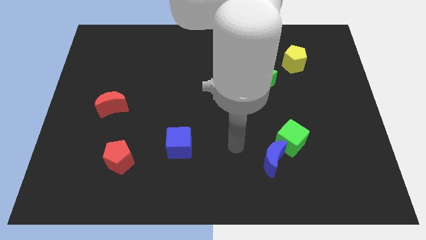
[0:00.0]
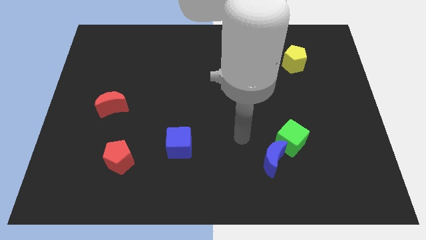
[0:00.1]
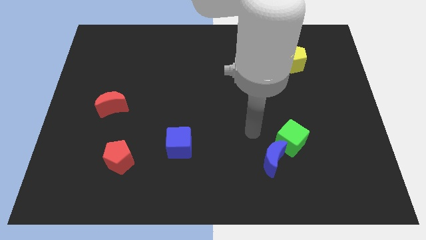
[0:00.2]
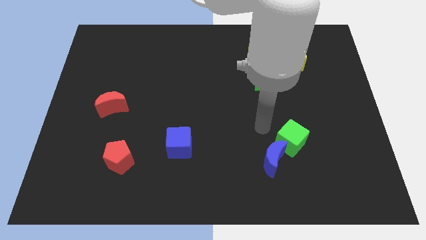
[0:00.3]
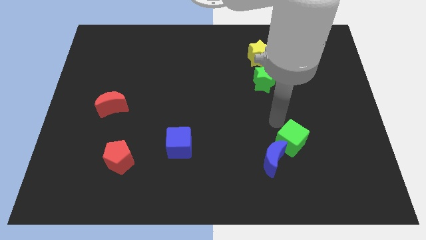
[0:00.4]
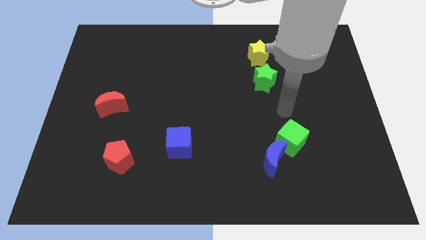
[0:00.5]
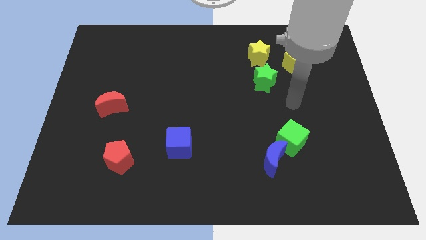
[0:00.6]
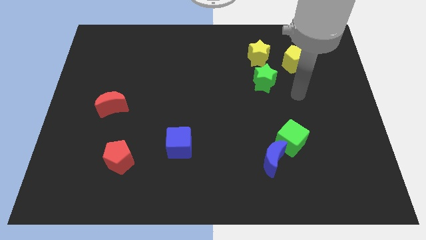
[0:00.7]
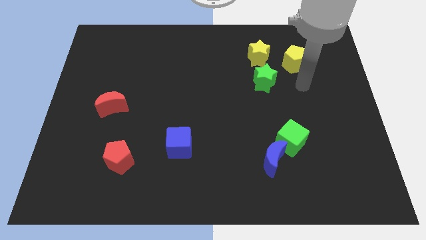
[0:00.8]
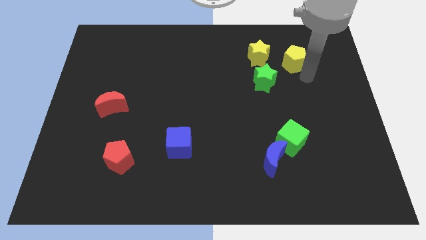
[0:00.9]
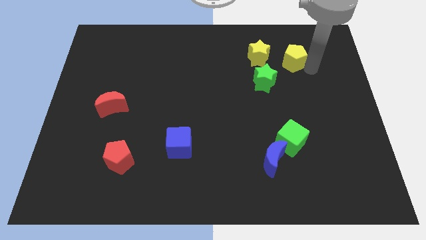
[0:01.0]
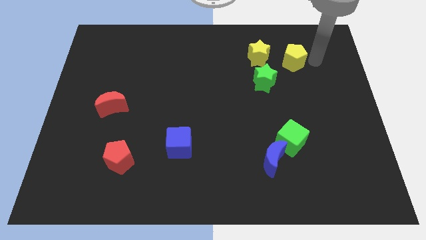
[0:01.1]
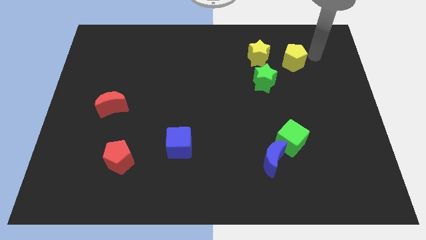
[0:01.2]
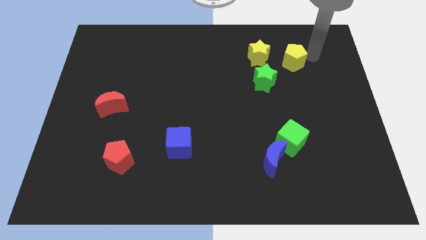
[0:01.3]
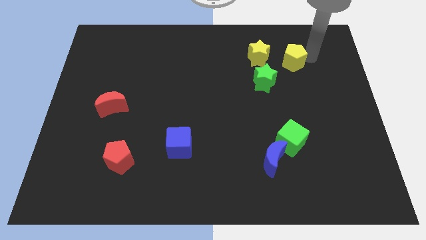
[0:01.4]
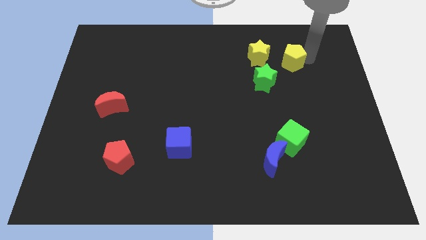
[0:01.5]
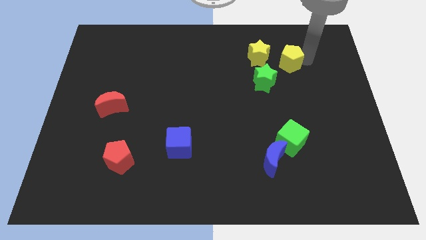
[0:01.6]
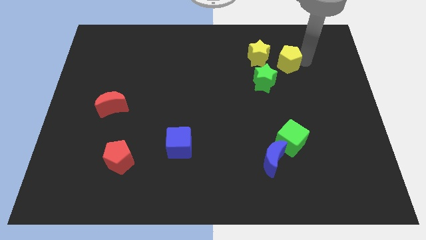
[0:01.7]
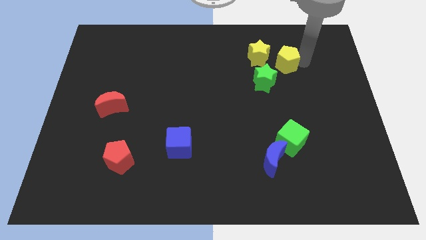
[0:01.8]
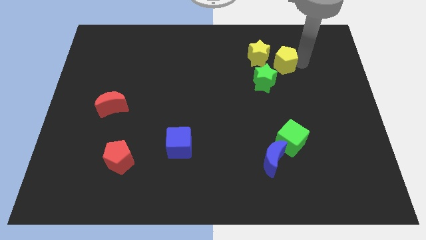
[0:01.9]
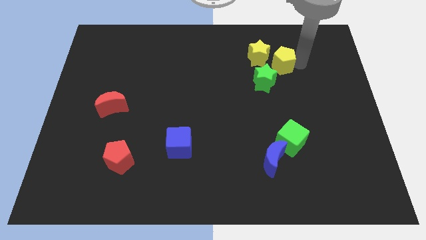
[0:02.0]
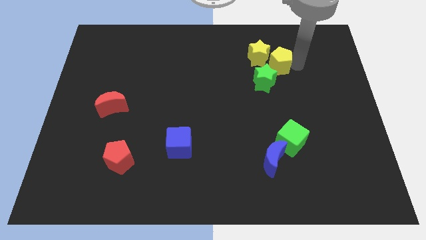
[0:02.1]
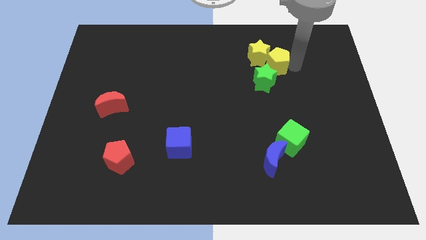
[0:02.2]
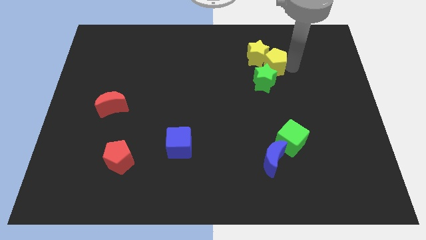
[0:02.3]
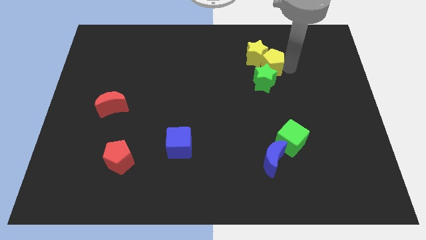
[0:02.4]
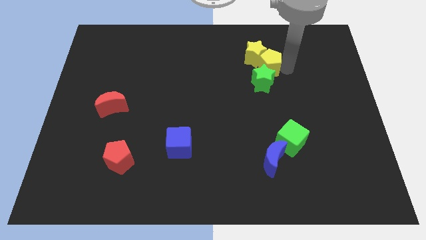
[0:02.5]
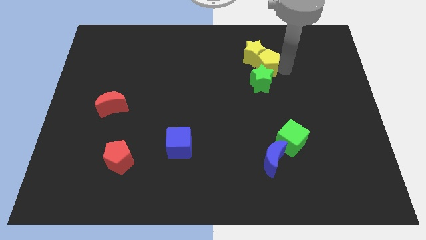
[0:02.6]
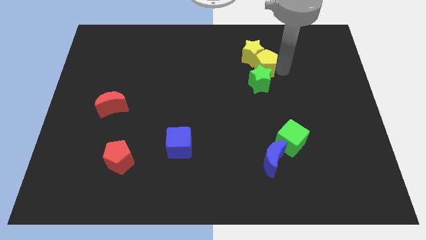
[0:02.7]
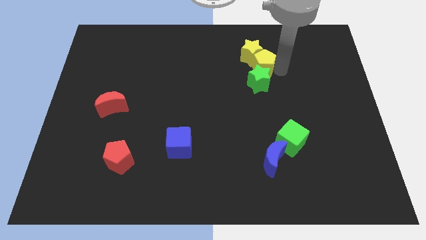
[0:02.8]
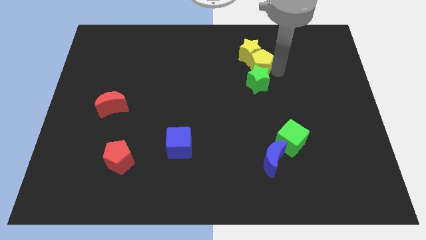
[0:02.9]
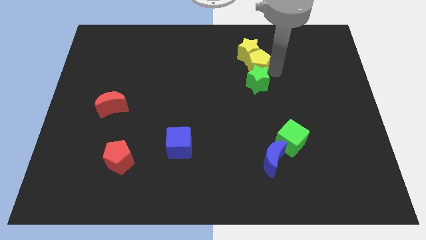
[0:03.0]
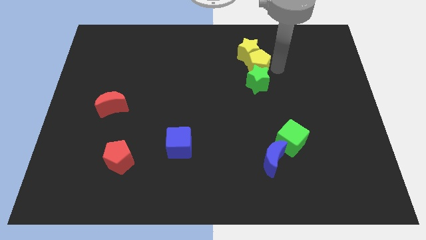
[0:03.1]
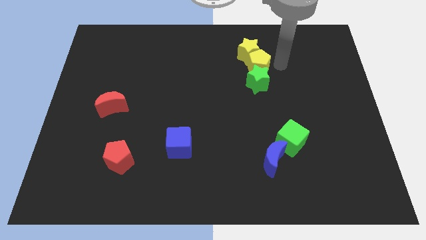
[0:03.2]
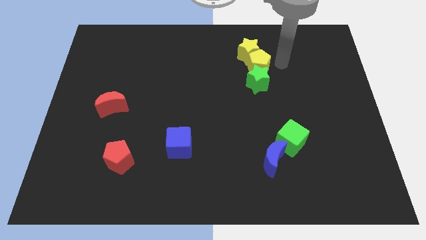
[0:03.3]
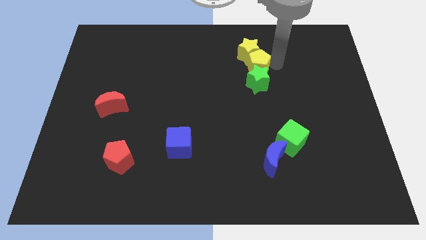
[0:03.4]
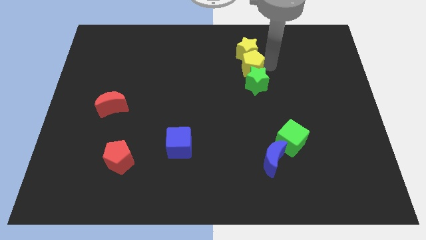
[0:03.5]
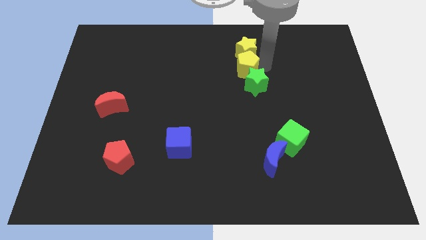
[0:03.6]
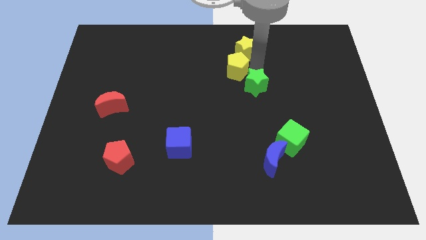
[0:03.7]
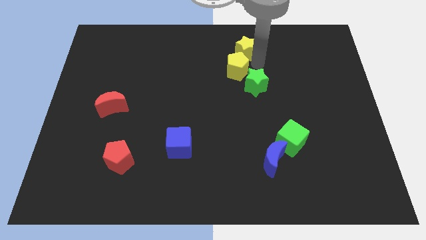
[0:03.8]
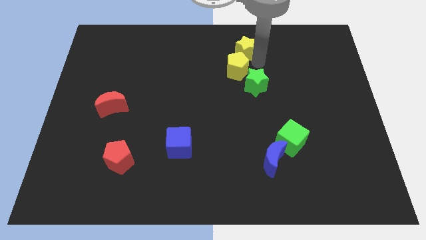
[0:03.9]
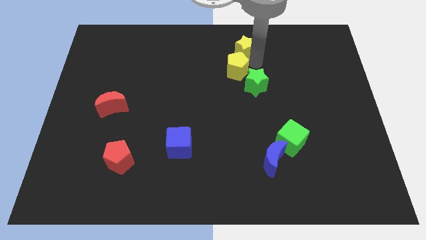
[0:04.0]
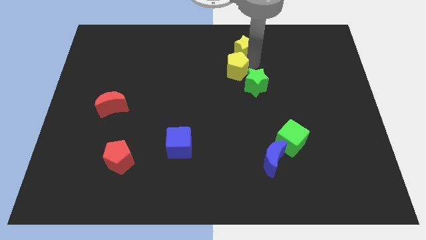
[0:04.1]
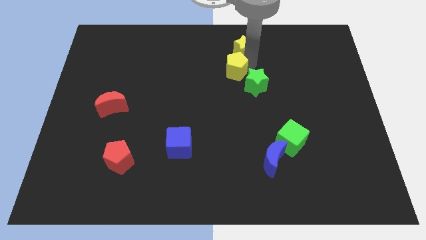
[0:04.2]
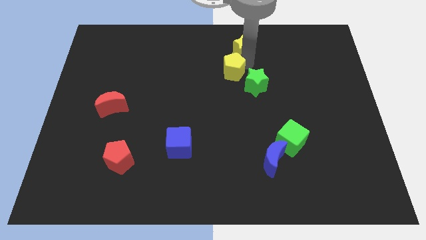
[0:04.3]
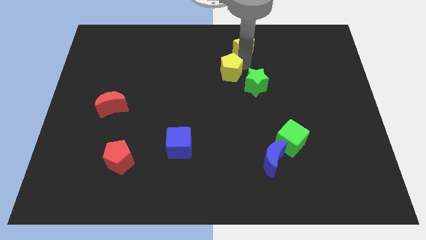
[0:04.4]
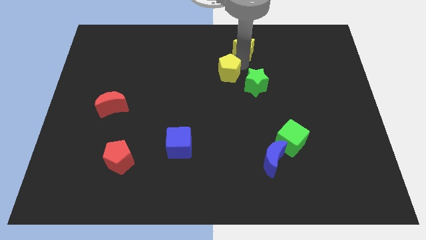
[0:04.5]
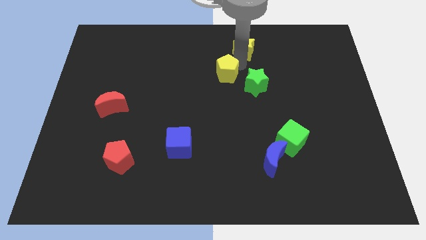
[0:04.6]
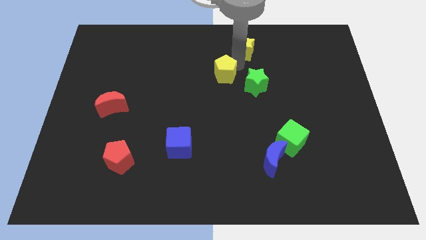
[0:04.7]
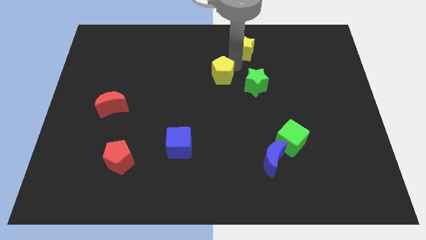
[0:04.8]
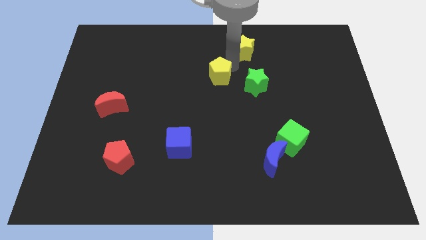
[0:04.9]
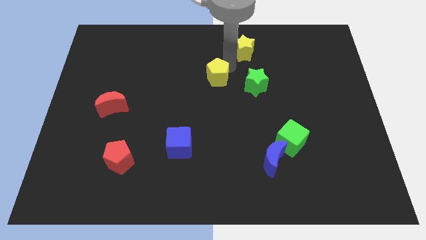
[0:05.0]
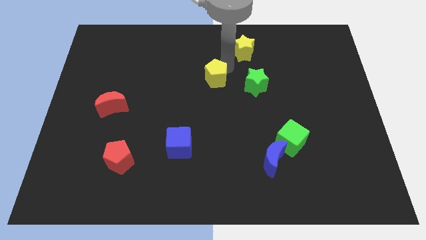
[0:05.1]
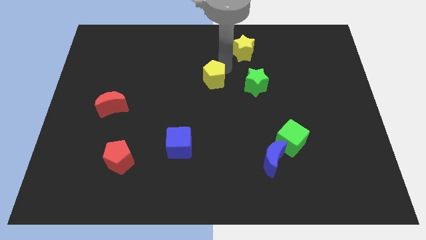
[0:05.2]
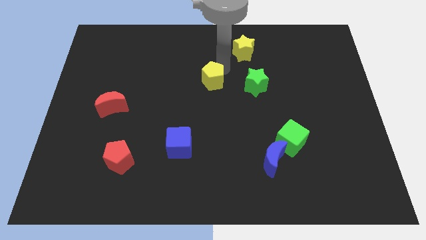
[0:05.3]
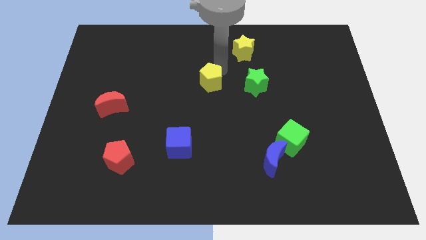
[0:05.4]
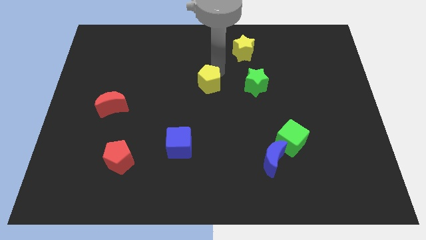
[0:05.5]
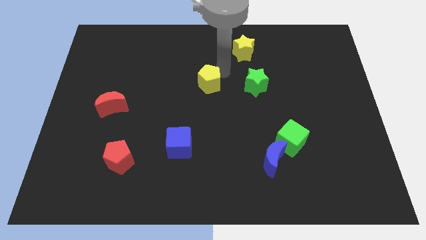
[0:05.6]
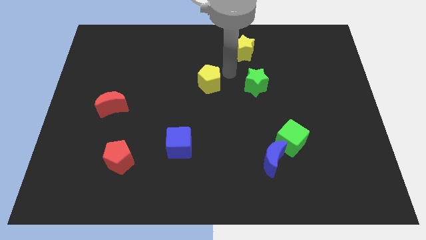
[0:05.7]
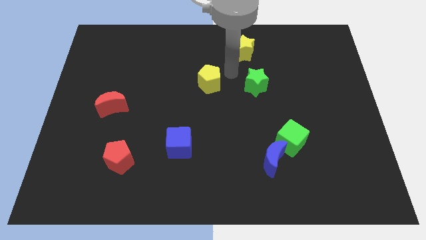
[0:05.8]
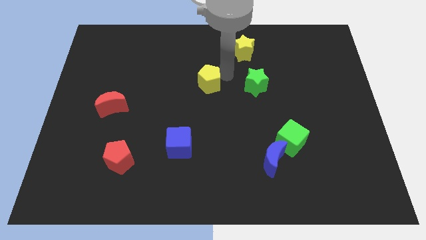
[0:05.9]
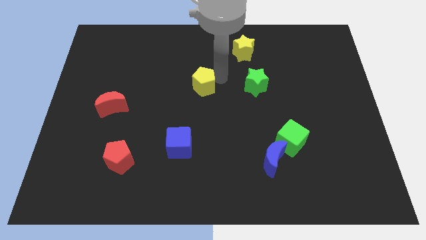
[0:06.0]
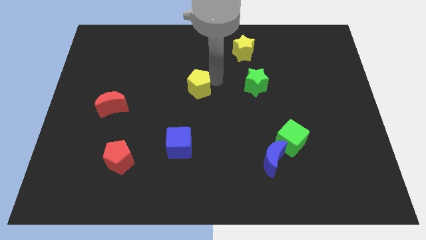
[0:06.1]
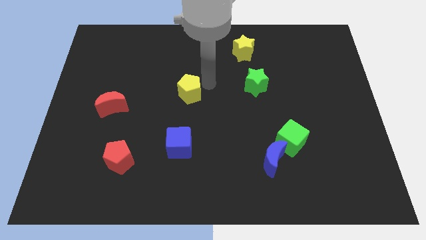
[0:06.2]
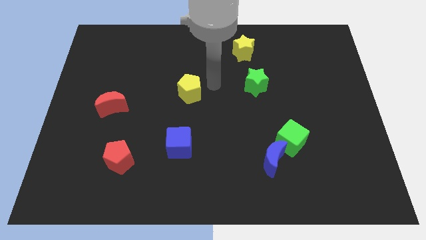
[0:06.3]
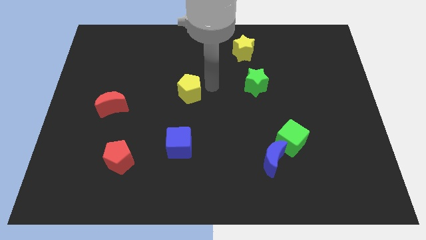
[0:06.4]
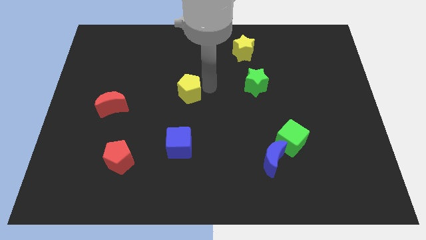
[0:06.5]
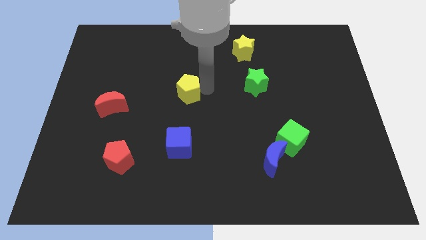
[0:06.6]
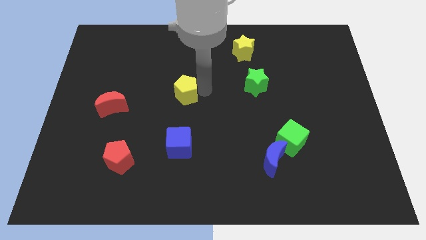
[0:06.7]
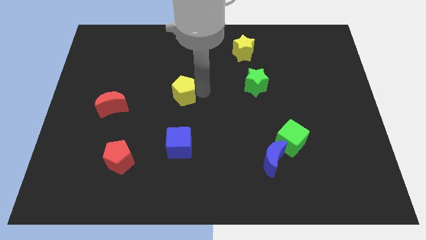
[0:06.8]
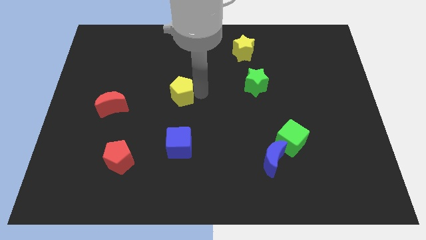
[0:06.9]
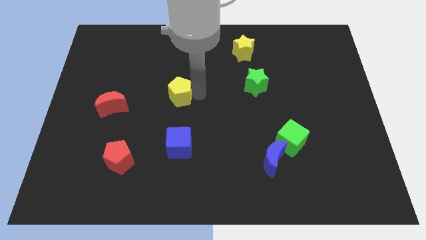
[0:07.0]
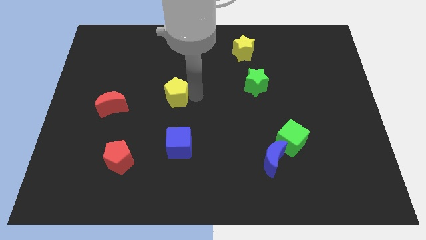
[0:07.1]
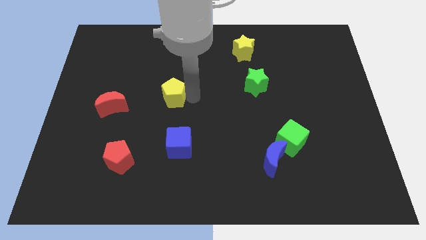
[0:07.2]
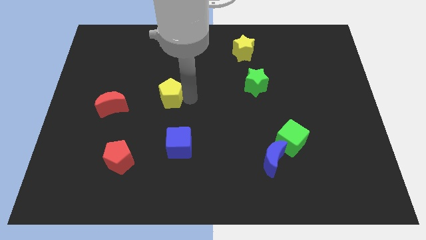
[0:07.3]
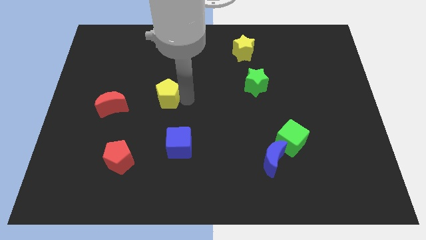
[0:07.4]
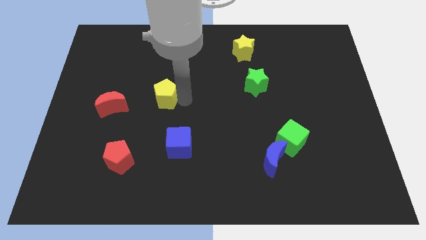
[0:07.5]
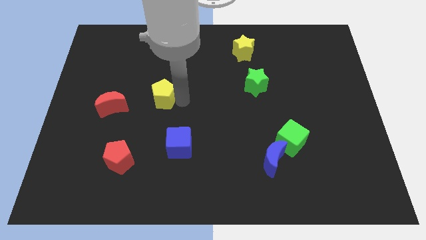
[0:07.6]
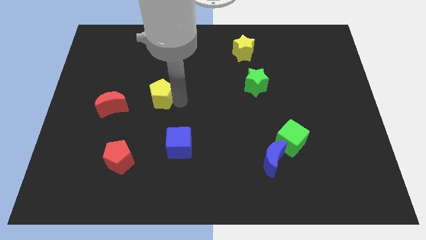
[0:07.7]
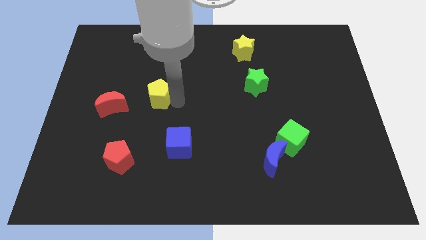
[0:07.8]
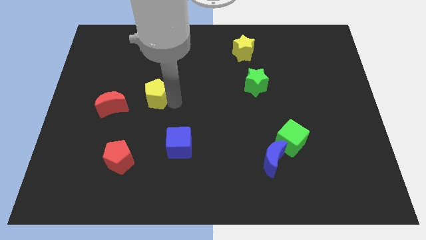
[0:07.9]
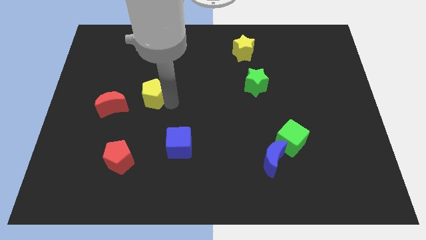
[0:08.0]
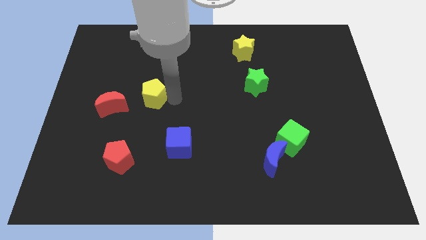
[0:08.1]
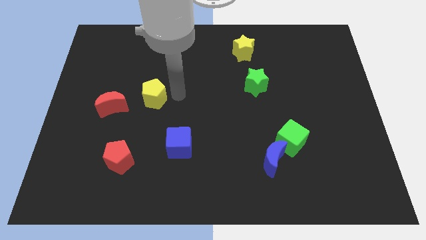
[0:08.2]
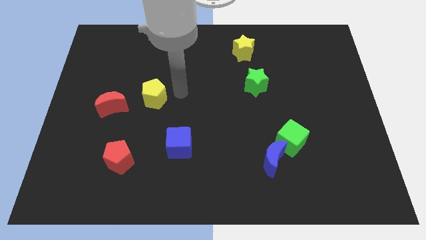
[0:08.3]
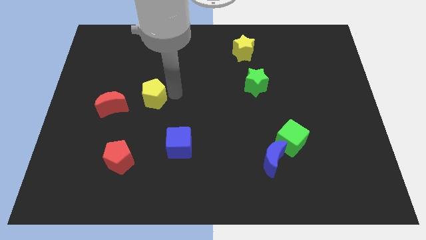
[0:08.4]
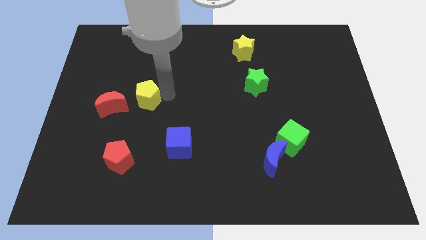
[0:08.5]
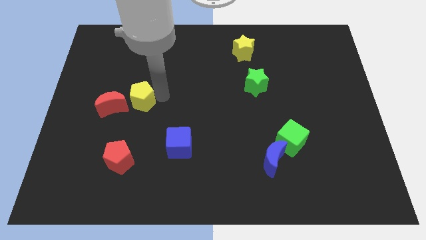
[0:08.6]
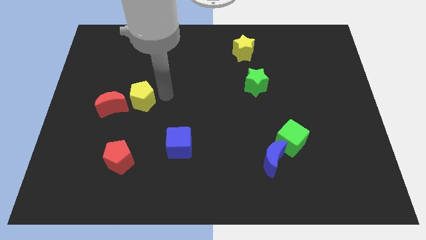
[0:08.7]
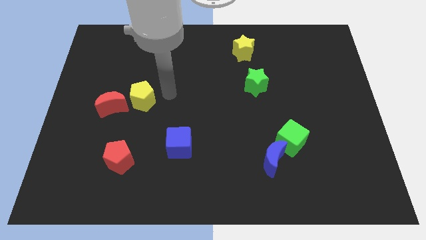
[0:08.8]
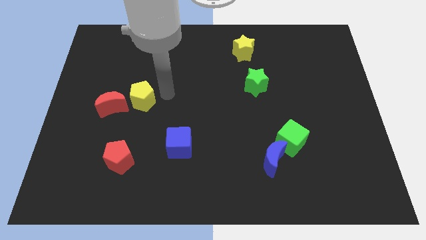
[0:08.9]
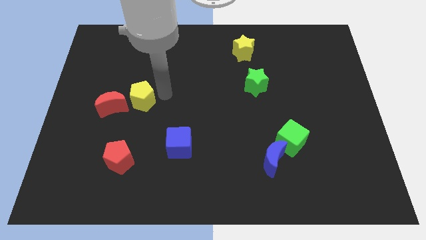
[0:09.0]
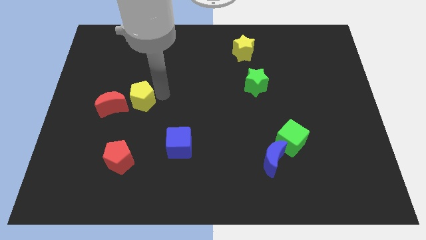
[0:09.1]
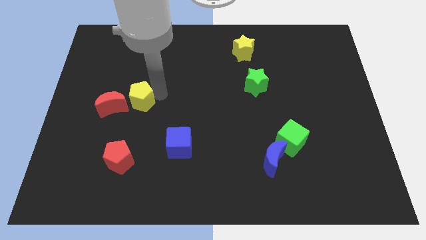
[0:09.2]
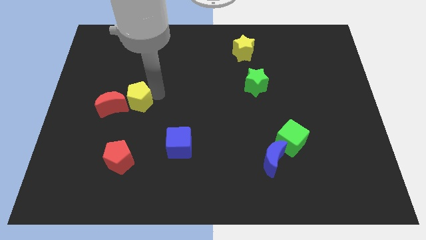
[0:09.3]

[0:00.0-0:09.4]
move the yellow pentagon towards the red moon
